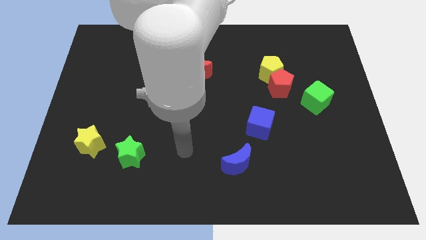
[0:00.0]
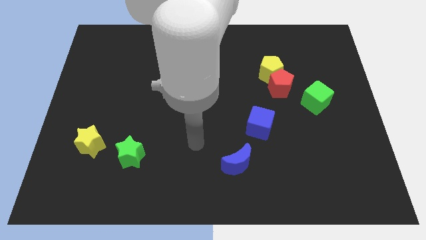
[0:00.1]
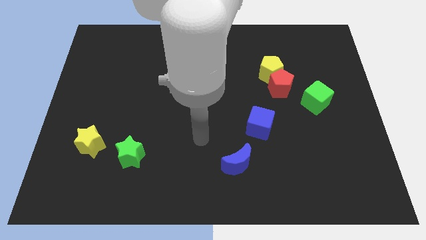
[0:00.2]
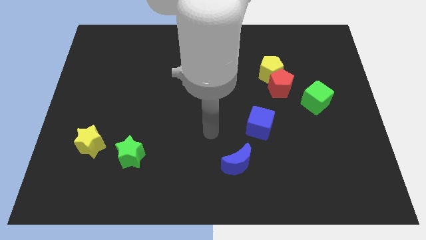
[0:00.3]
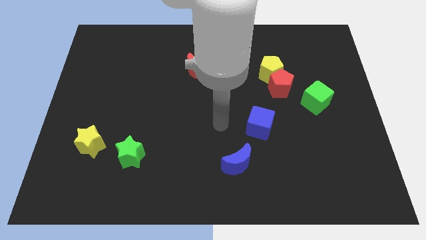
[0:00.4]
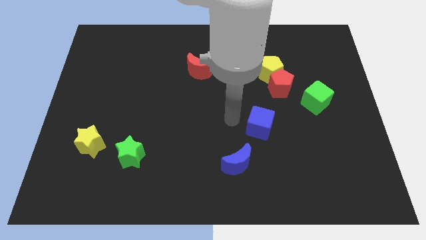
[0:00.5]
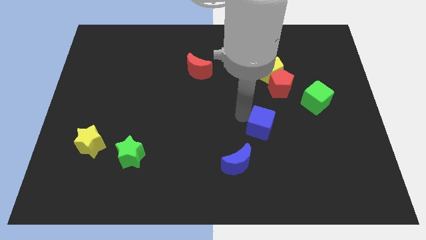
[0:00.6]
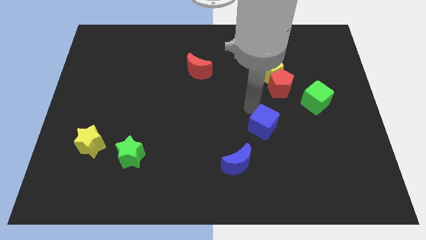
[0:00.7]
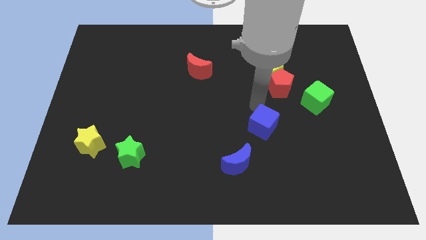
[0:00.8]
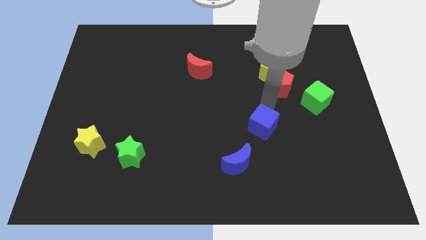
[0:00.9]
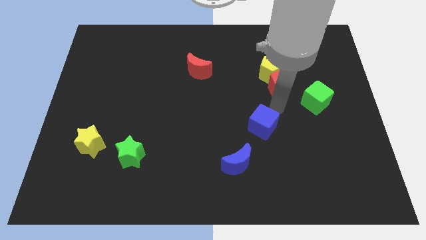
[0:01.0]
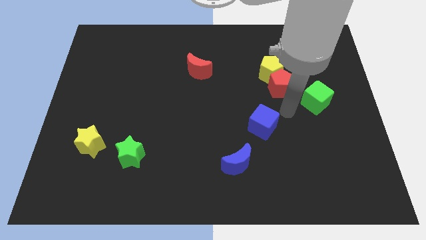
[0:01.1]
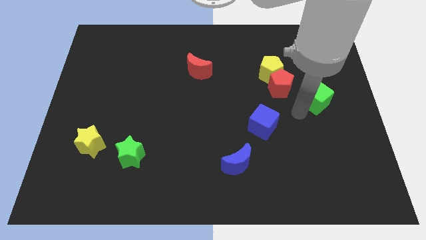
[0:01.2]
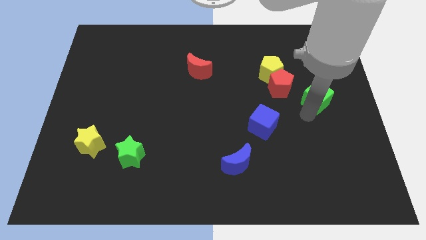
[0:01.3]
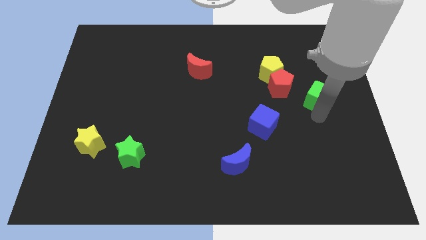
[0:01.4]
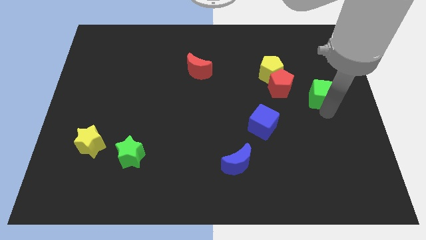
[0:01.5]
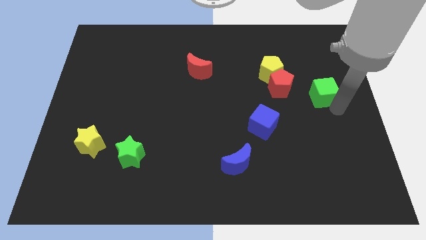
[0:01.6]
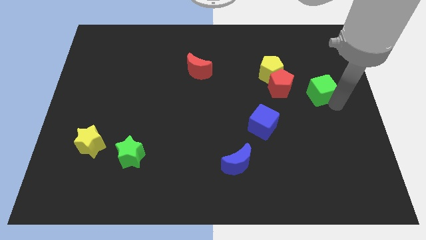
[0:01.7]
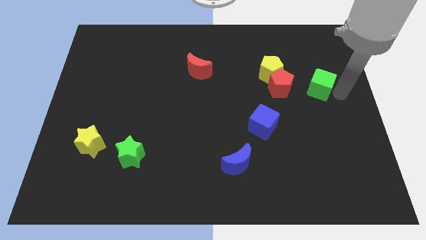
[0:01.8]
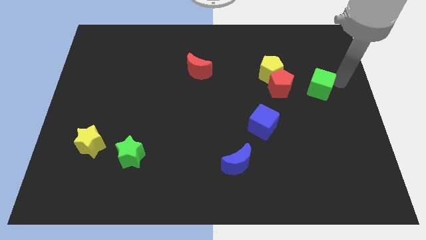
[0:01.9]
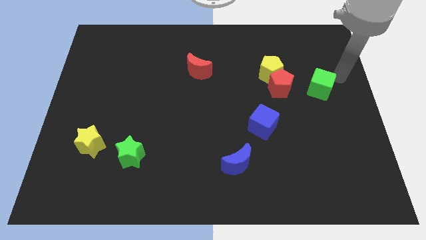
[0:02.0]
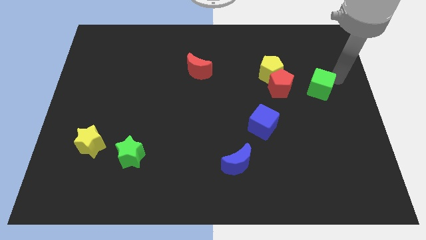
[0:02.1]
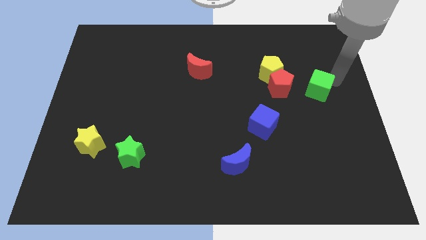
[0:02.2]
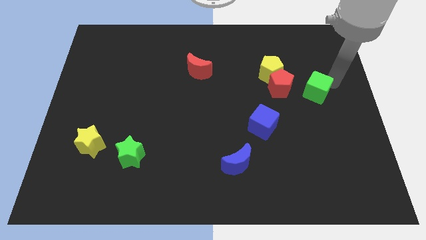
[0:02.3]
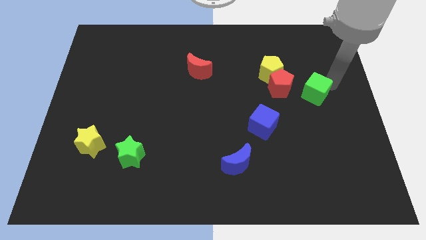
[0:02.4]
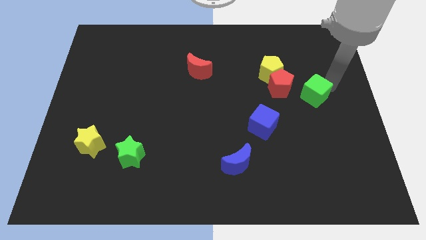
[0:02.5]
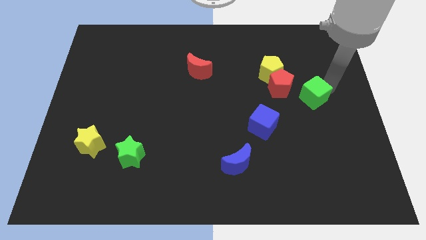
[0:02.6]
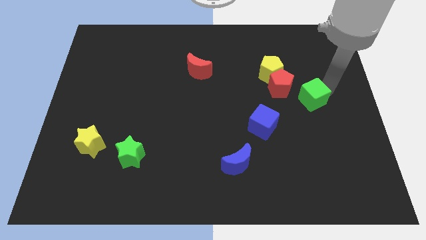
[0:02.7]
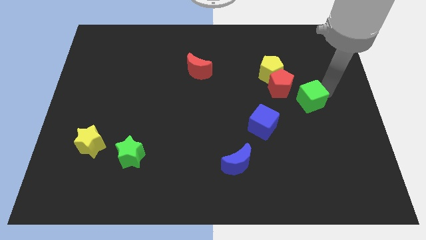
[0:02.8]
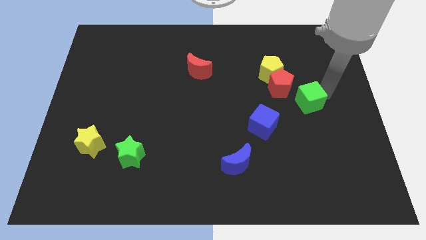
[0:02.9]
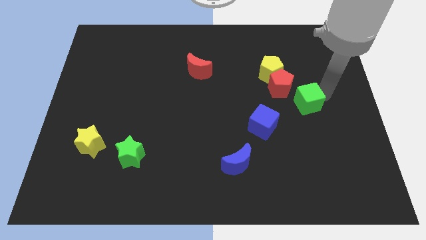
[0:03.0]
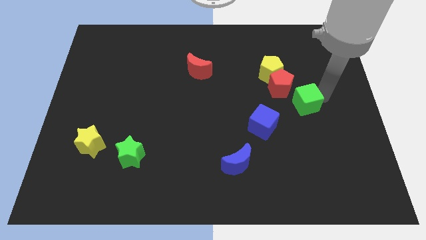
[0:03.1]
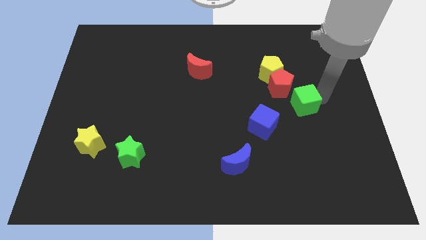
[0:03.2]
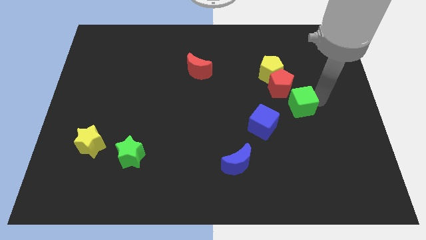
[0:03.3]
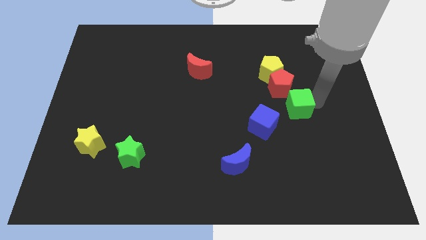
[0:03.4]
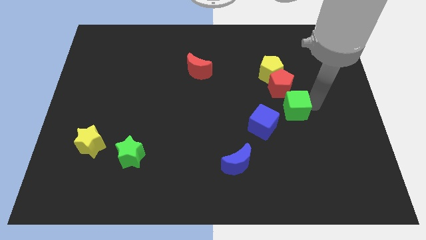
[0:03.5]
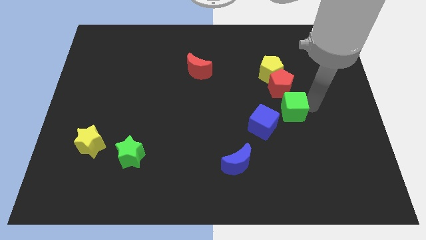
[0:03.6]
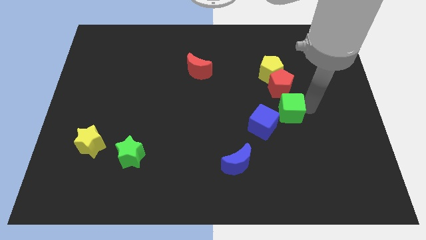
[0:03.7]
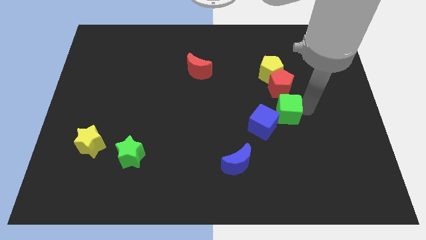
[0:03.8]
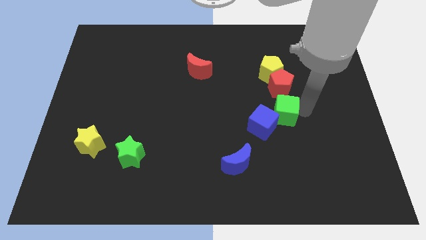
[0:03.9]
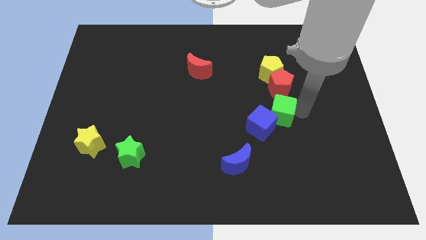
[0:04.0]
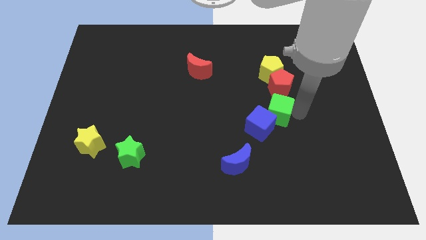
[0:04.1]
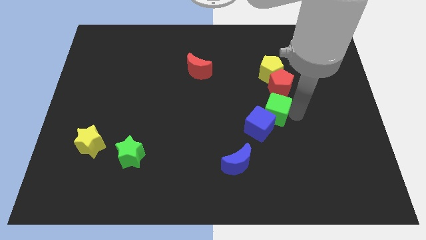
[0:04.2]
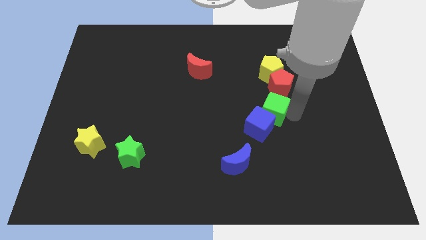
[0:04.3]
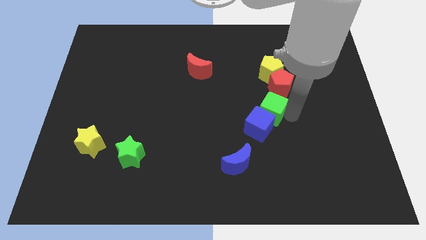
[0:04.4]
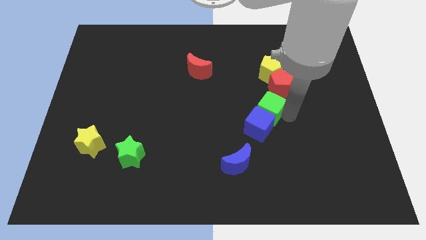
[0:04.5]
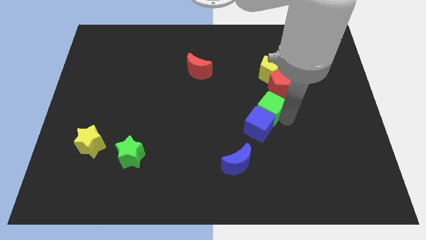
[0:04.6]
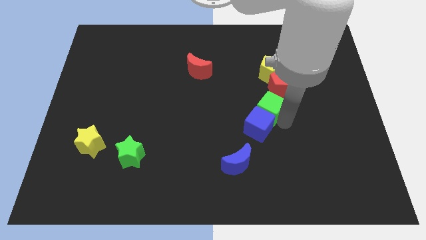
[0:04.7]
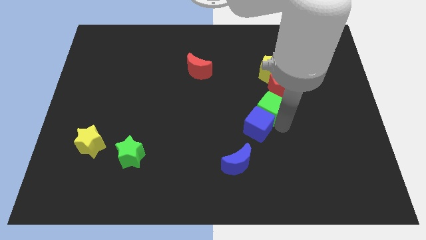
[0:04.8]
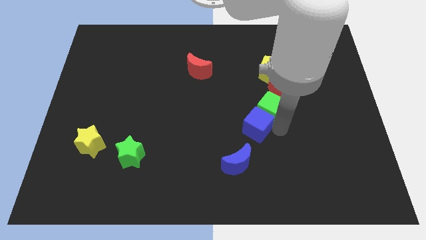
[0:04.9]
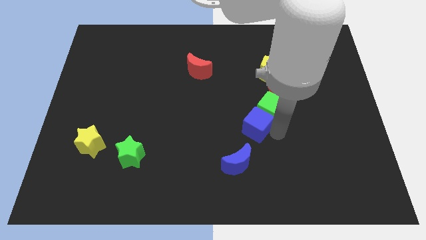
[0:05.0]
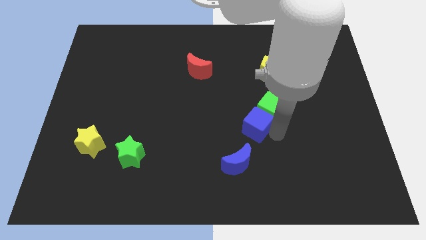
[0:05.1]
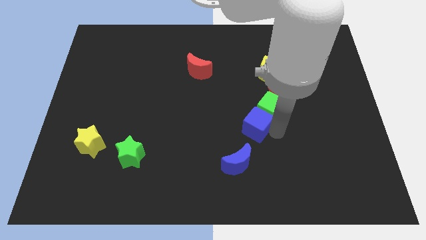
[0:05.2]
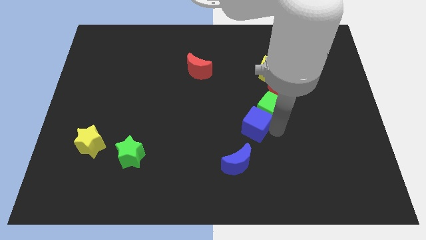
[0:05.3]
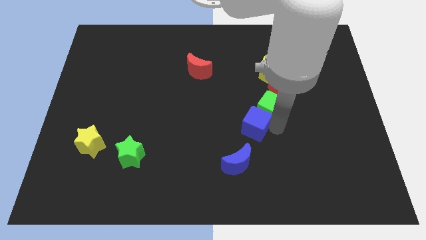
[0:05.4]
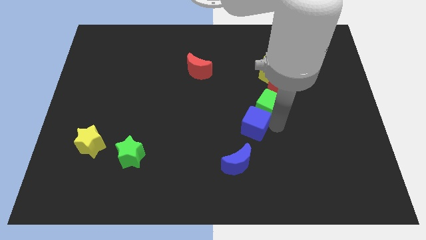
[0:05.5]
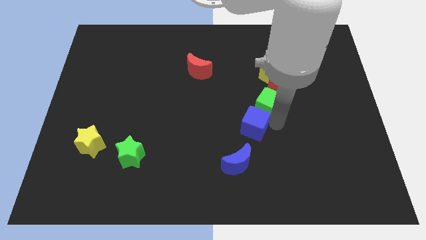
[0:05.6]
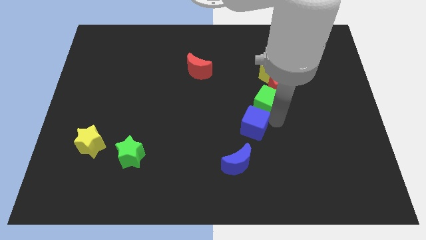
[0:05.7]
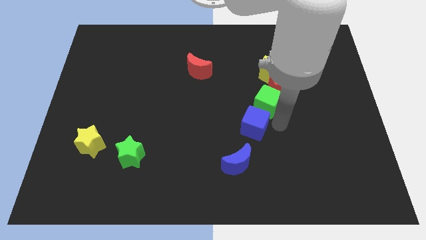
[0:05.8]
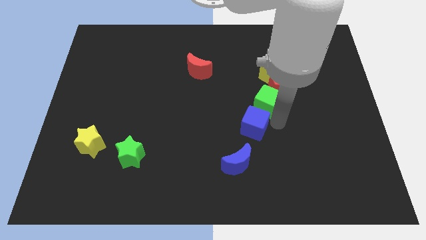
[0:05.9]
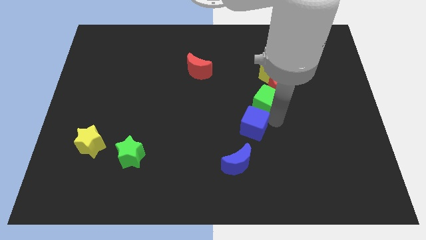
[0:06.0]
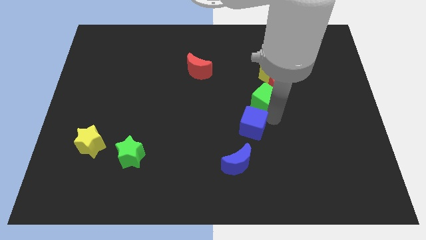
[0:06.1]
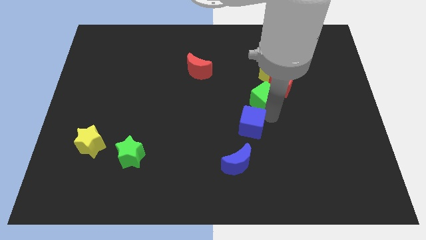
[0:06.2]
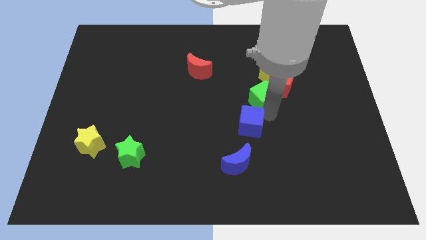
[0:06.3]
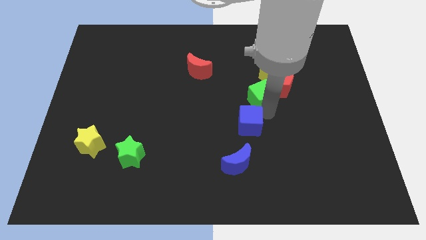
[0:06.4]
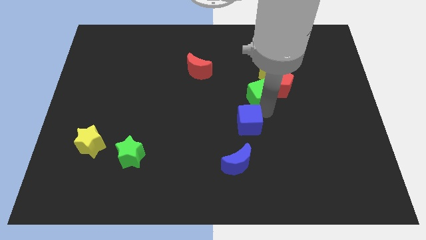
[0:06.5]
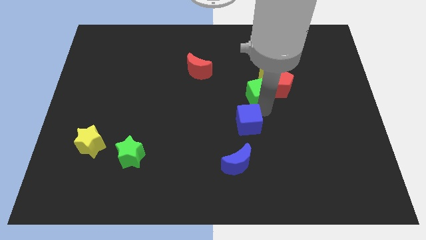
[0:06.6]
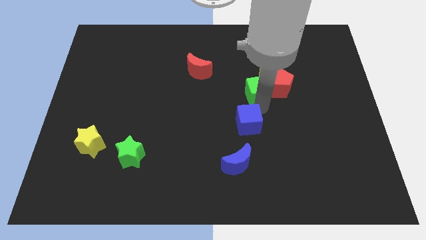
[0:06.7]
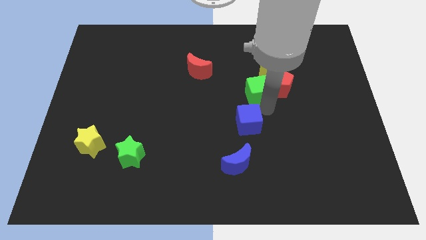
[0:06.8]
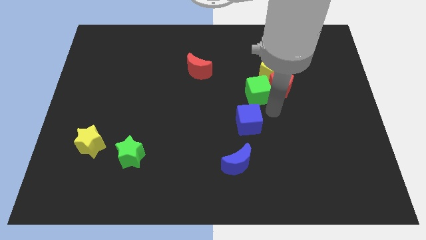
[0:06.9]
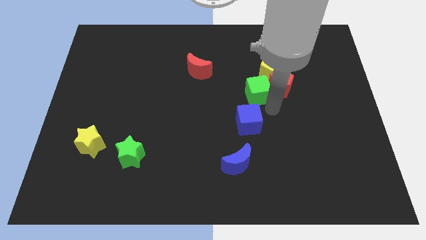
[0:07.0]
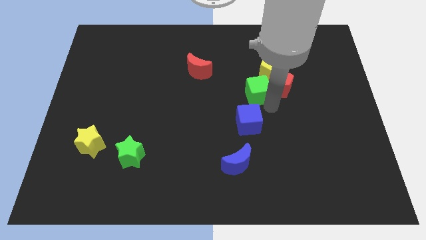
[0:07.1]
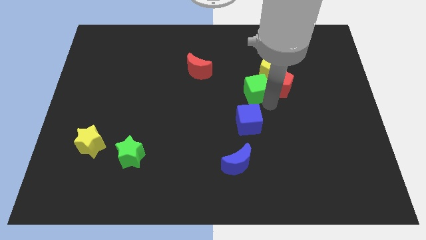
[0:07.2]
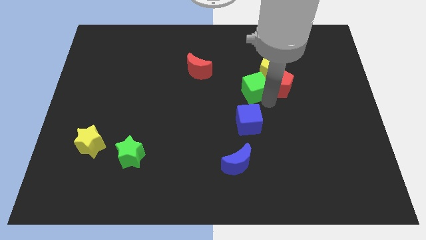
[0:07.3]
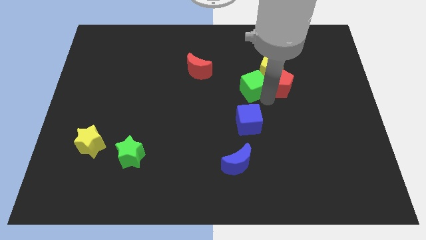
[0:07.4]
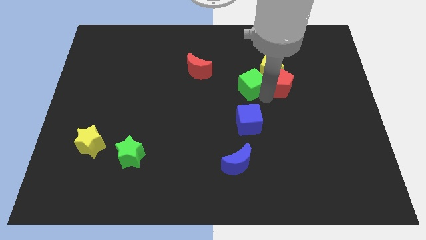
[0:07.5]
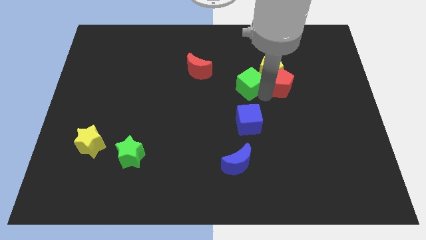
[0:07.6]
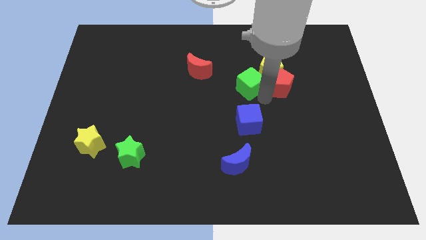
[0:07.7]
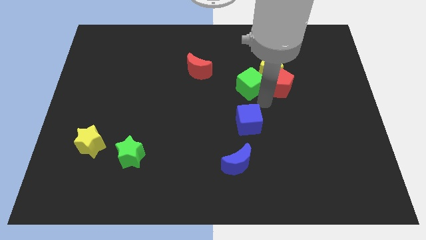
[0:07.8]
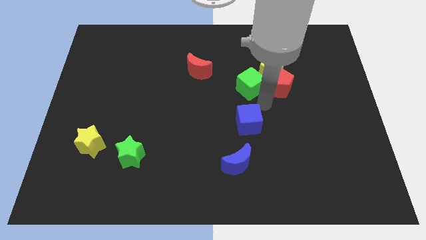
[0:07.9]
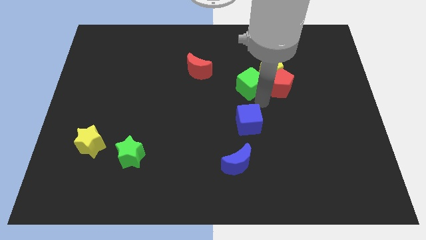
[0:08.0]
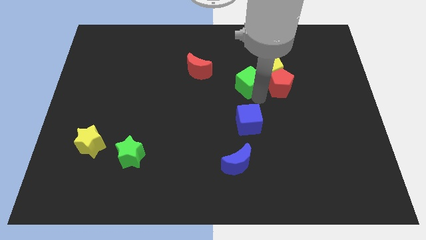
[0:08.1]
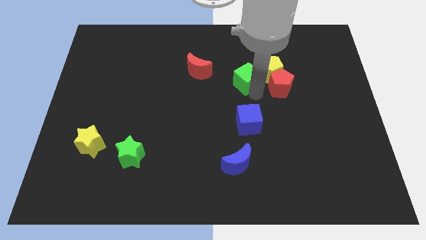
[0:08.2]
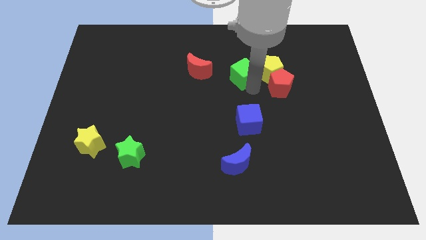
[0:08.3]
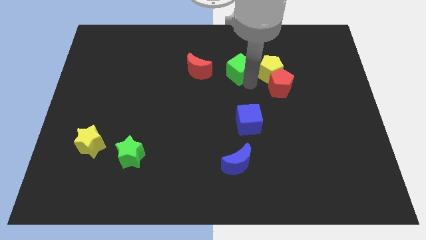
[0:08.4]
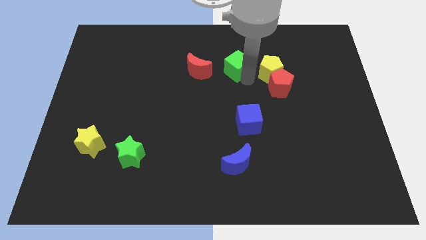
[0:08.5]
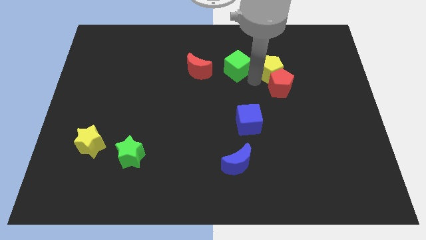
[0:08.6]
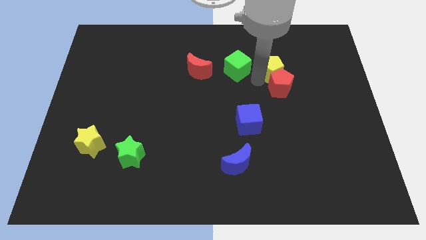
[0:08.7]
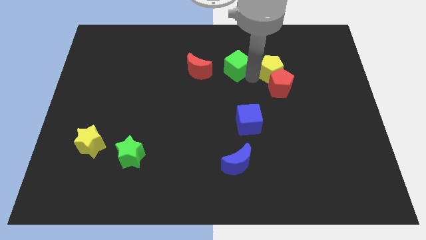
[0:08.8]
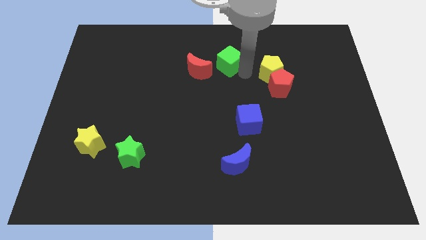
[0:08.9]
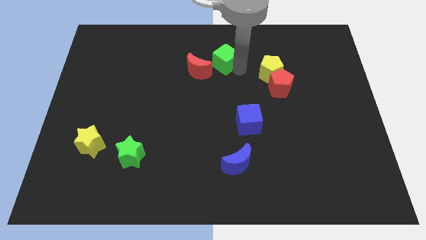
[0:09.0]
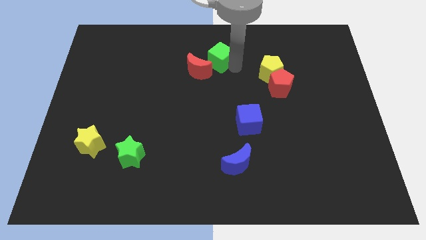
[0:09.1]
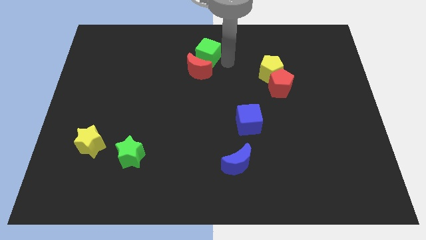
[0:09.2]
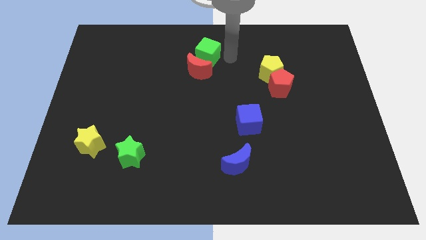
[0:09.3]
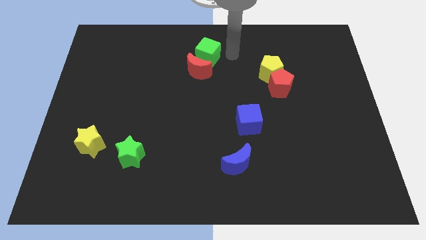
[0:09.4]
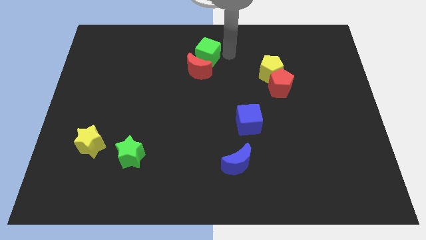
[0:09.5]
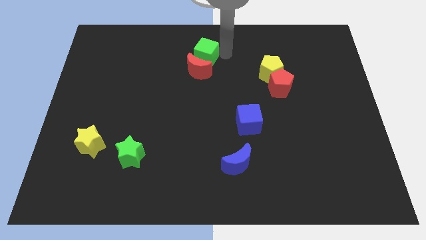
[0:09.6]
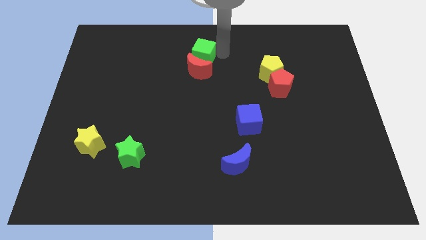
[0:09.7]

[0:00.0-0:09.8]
move the green cube diagonally up and to the left of the red moon
